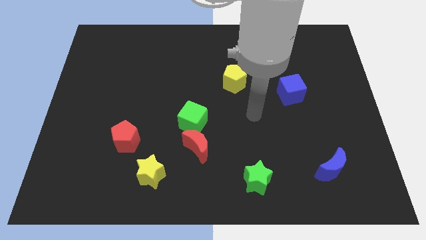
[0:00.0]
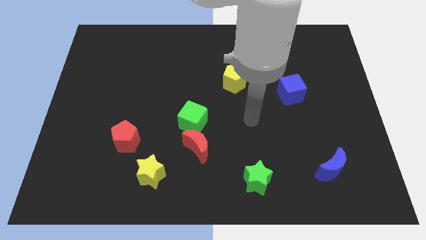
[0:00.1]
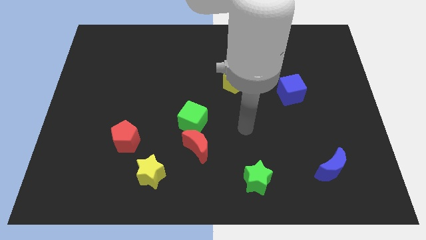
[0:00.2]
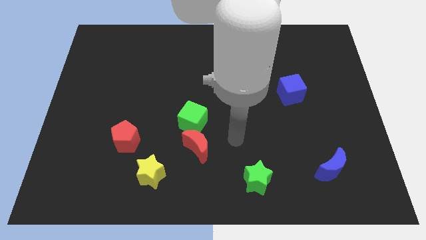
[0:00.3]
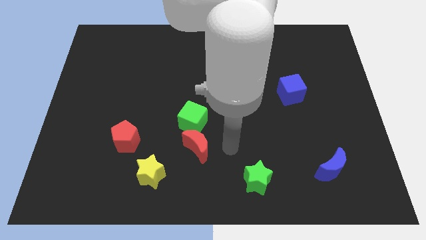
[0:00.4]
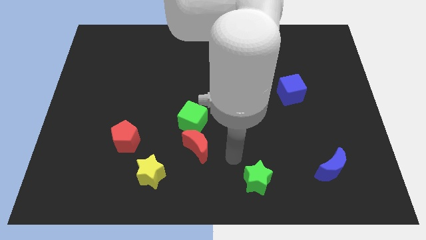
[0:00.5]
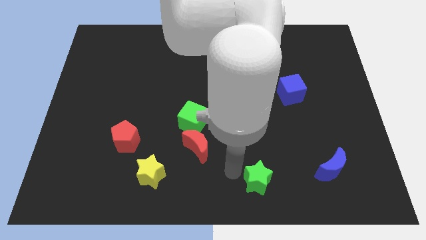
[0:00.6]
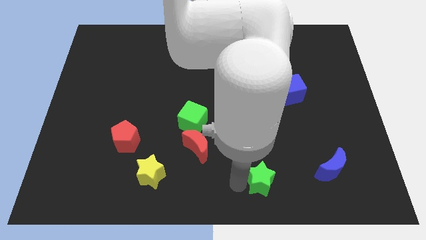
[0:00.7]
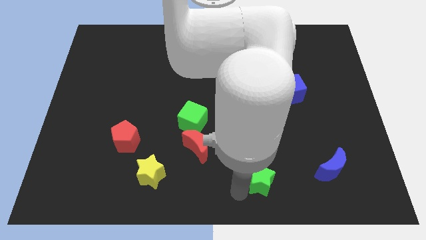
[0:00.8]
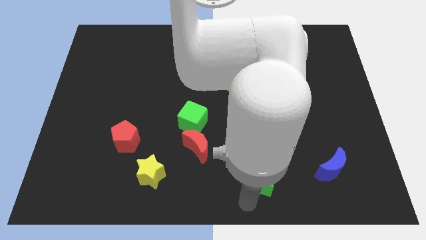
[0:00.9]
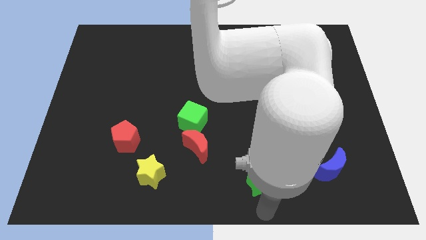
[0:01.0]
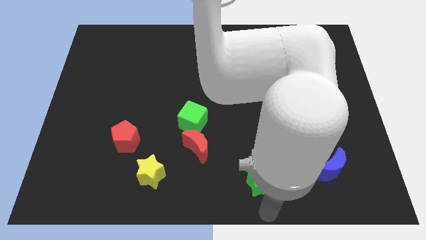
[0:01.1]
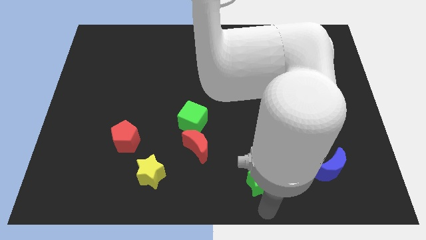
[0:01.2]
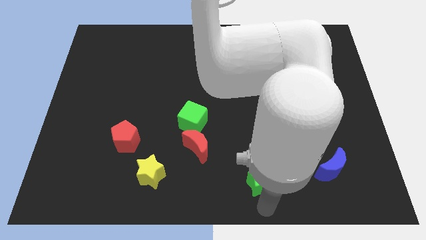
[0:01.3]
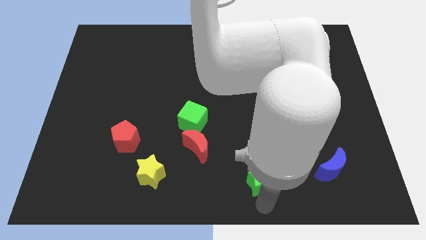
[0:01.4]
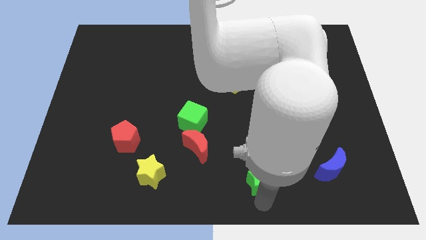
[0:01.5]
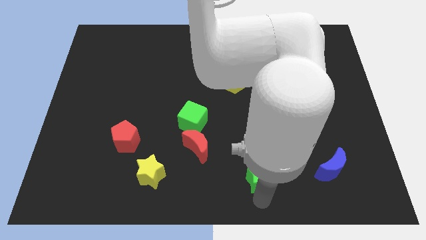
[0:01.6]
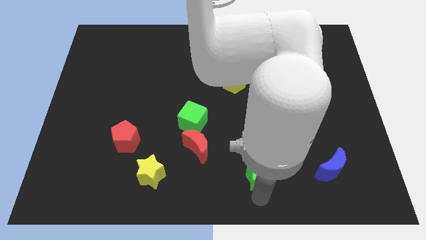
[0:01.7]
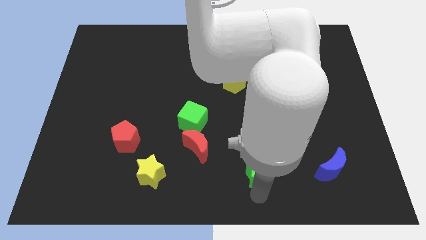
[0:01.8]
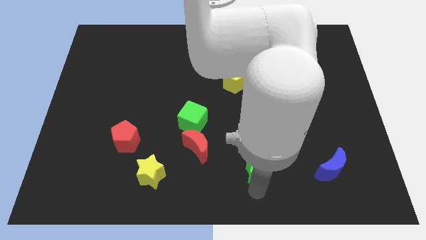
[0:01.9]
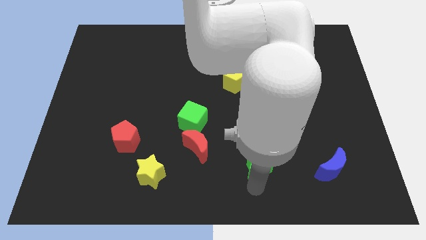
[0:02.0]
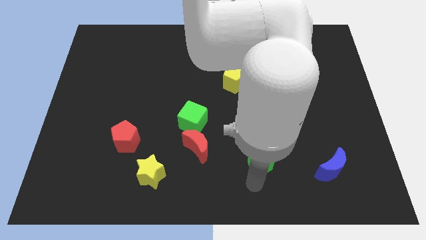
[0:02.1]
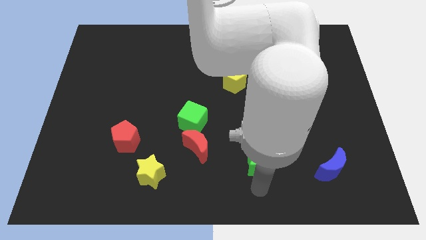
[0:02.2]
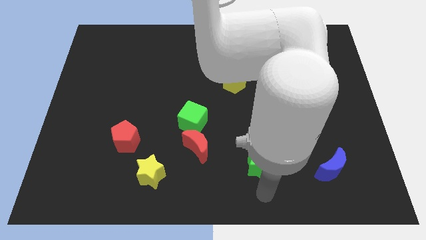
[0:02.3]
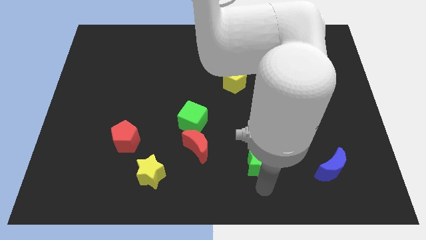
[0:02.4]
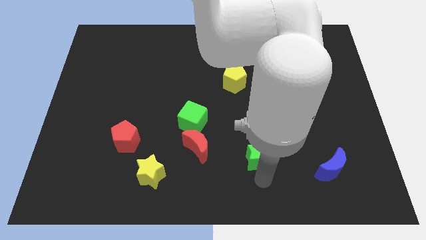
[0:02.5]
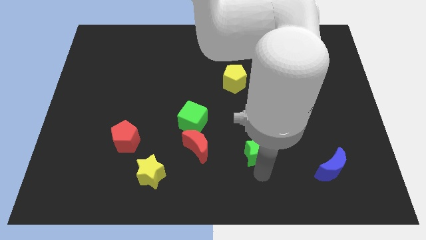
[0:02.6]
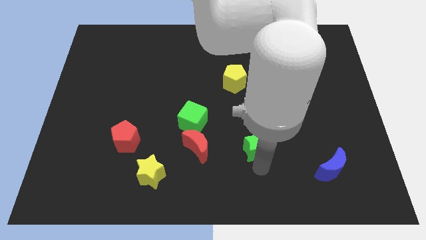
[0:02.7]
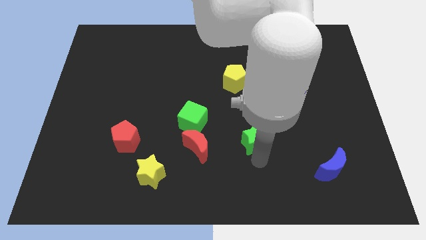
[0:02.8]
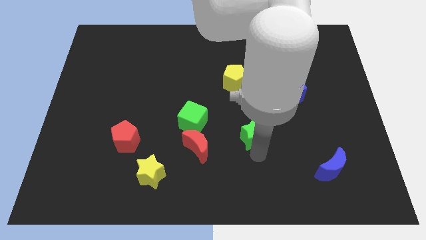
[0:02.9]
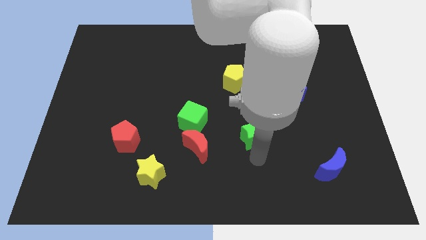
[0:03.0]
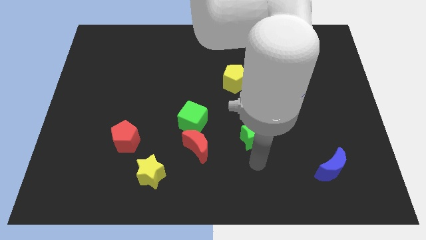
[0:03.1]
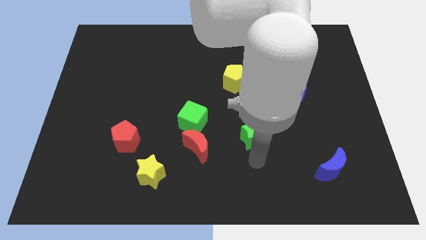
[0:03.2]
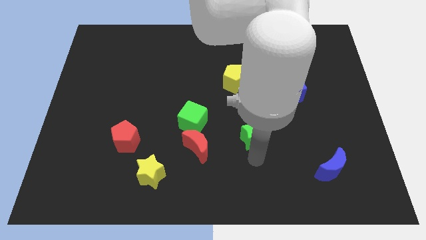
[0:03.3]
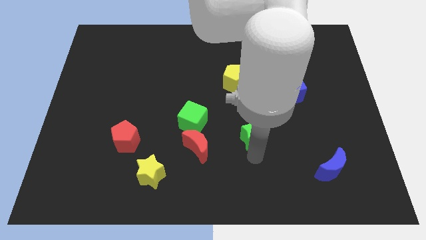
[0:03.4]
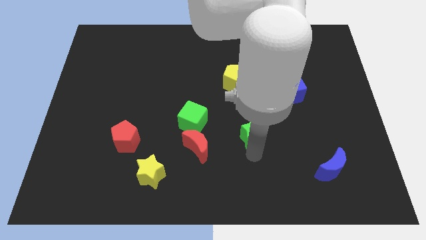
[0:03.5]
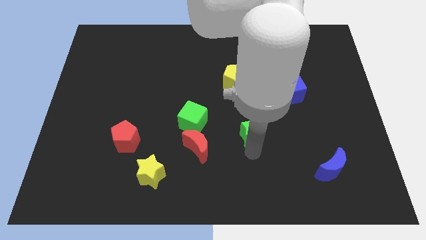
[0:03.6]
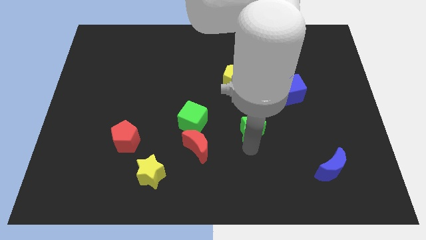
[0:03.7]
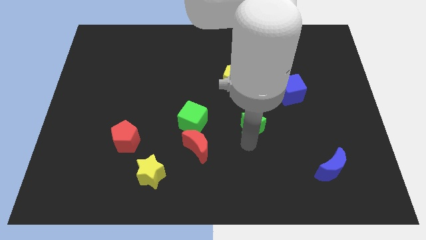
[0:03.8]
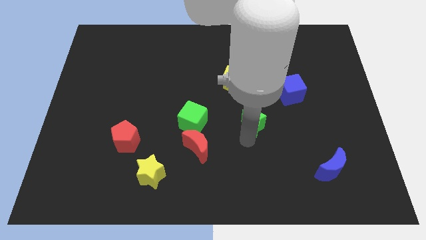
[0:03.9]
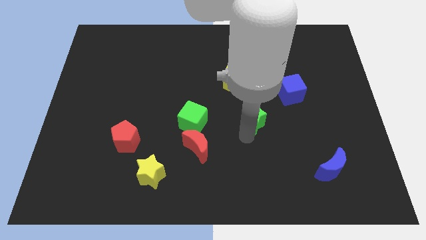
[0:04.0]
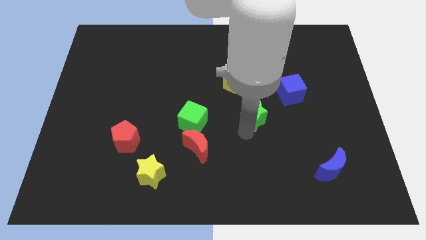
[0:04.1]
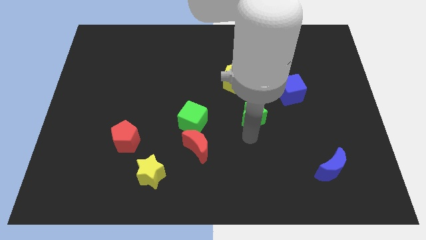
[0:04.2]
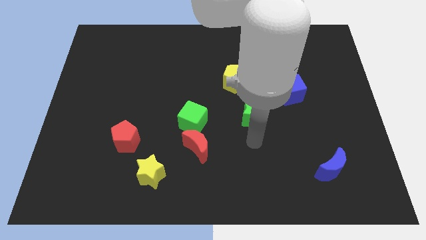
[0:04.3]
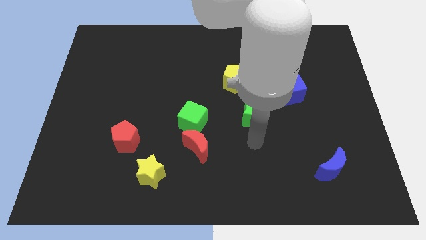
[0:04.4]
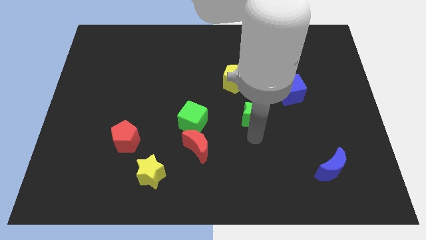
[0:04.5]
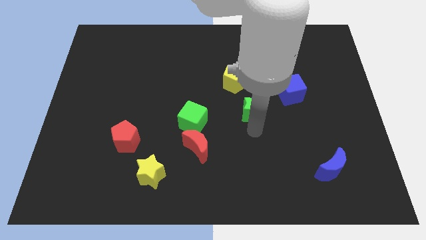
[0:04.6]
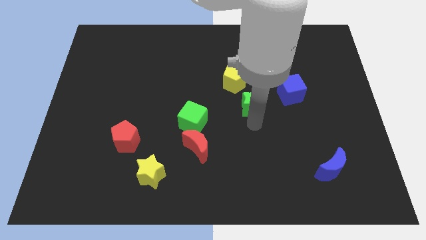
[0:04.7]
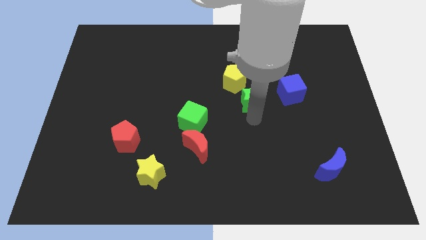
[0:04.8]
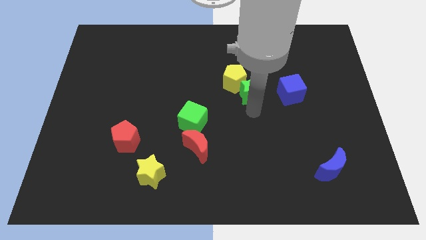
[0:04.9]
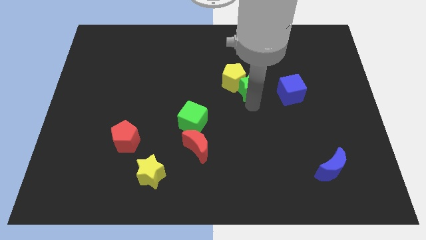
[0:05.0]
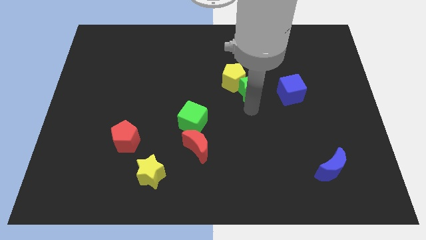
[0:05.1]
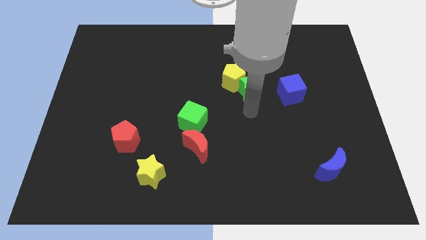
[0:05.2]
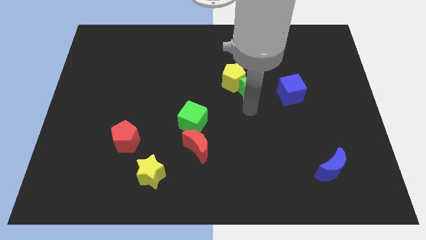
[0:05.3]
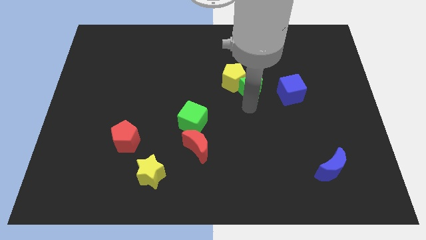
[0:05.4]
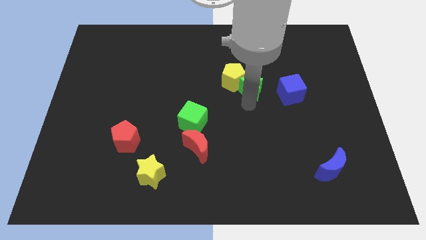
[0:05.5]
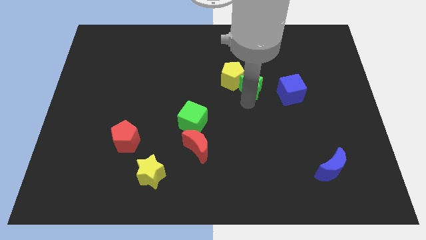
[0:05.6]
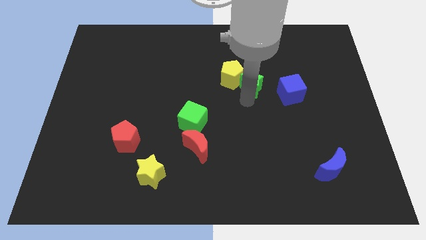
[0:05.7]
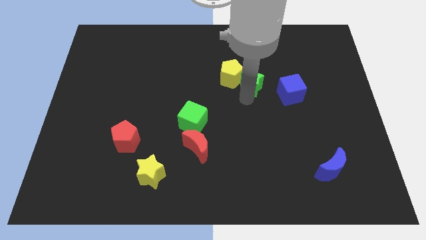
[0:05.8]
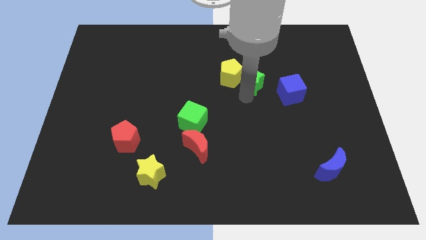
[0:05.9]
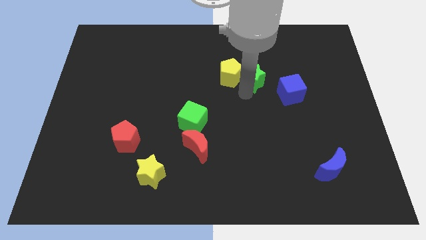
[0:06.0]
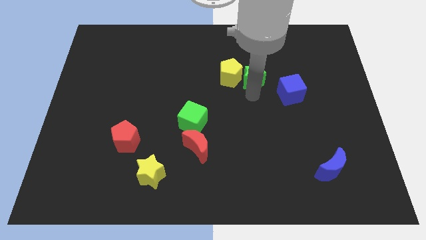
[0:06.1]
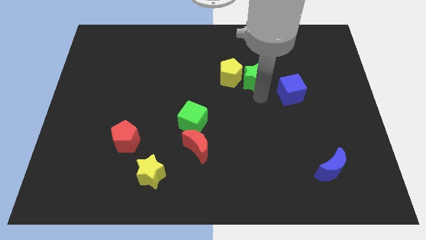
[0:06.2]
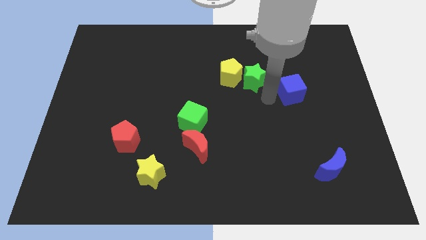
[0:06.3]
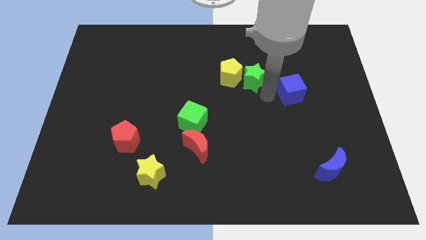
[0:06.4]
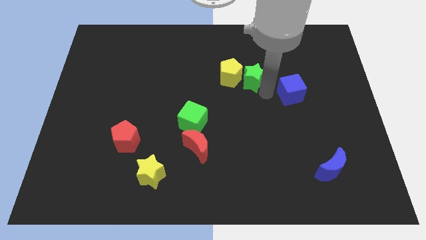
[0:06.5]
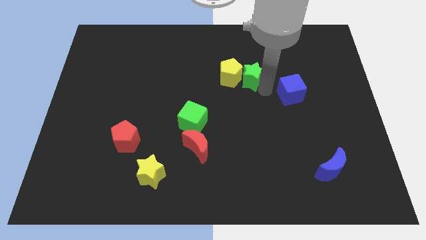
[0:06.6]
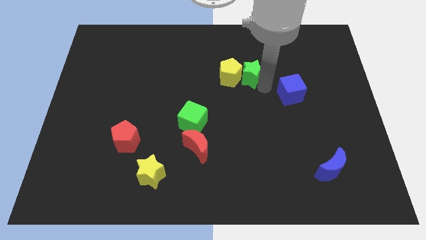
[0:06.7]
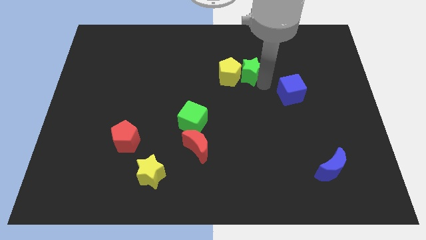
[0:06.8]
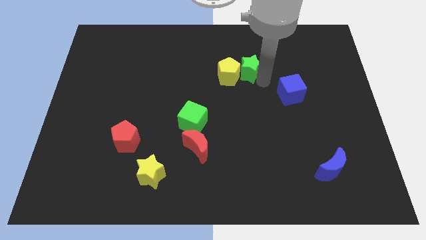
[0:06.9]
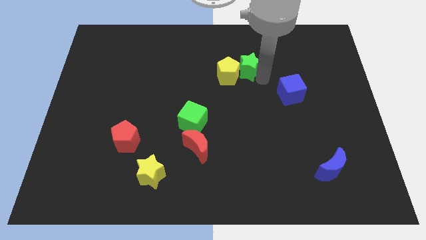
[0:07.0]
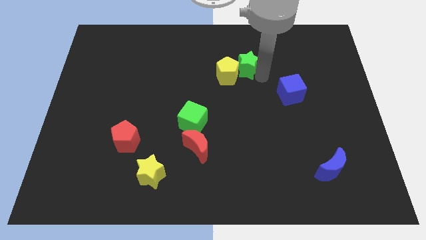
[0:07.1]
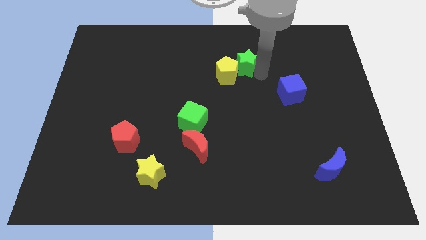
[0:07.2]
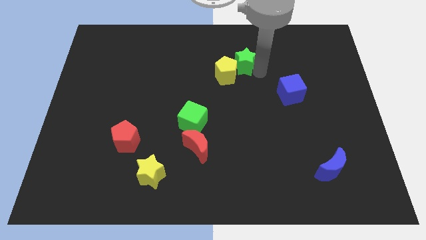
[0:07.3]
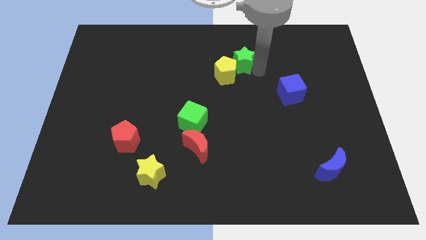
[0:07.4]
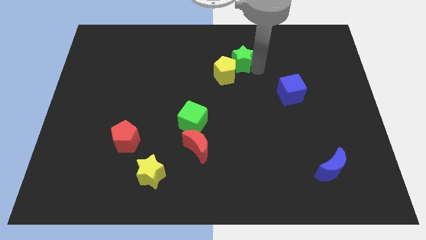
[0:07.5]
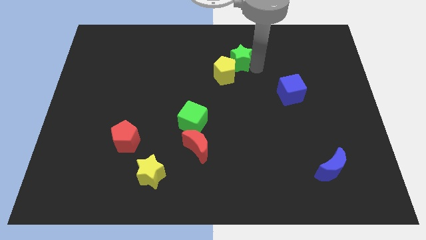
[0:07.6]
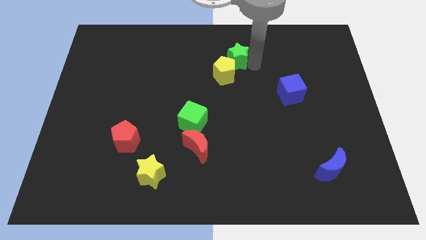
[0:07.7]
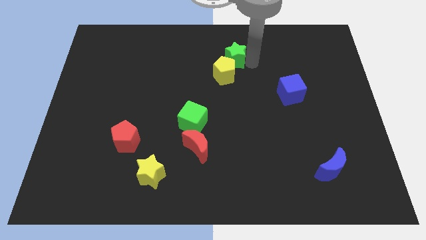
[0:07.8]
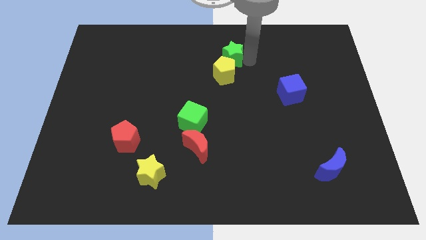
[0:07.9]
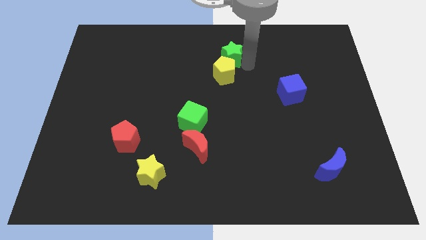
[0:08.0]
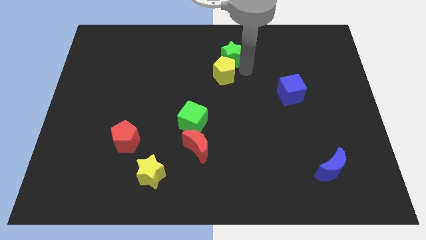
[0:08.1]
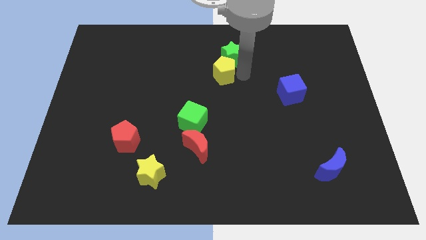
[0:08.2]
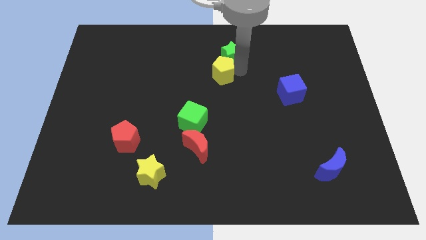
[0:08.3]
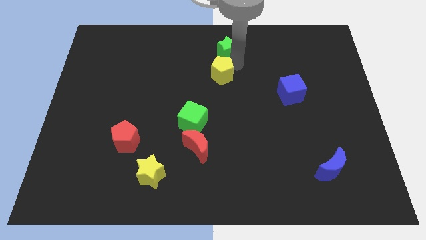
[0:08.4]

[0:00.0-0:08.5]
move the green star to the towards your base

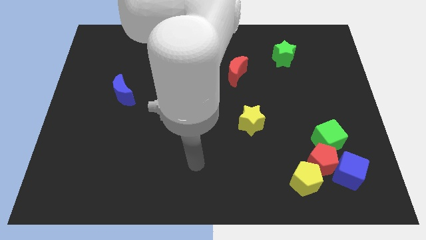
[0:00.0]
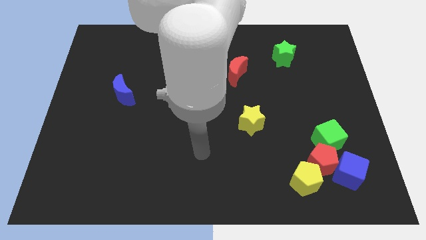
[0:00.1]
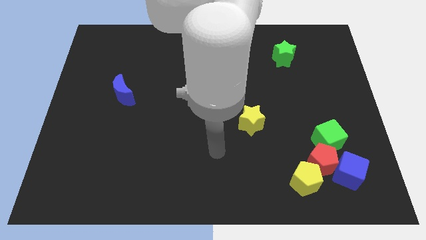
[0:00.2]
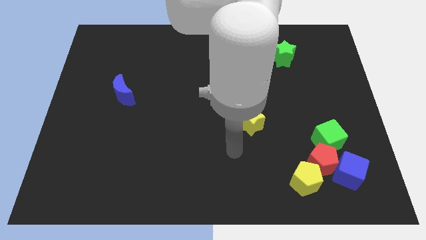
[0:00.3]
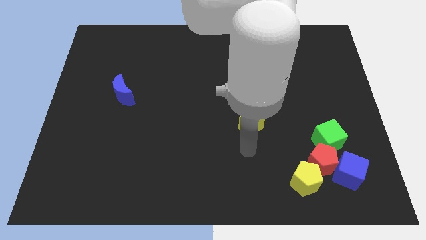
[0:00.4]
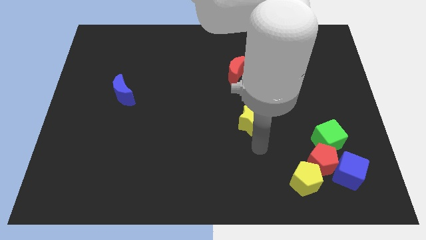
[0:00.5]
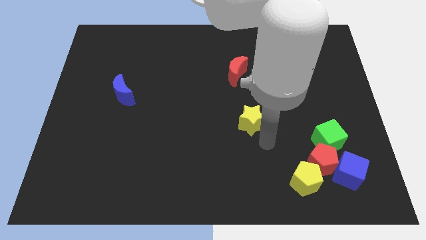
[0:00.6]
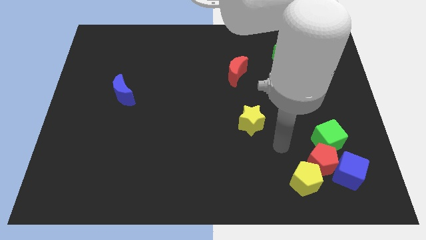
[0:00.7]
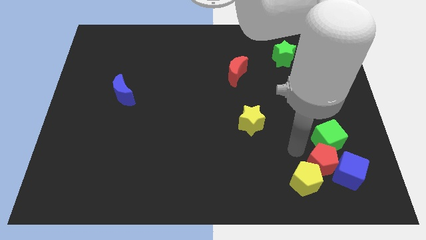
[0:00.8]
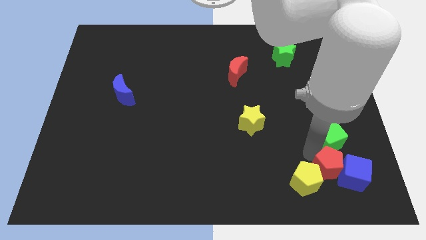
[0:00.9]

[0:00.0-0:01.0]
move the blue cube to the bottom right of the board
